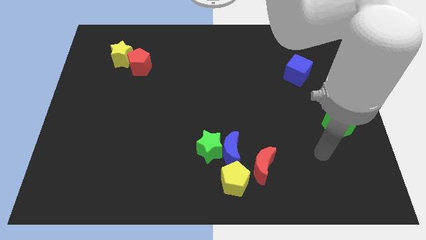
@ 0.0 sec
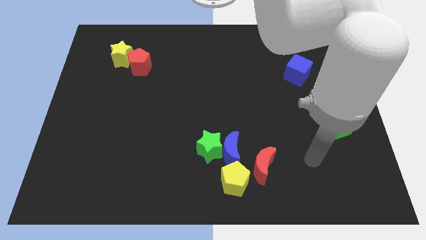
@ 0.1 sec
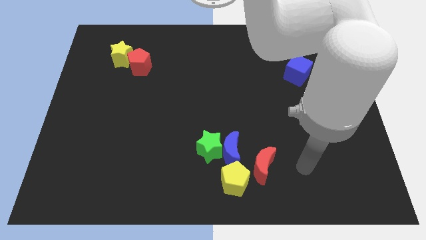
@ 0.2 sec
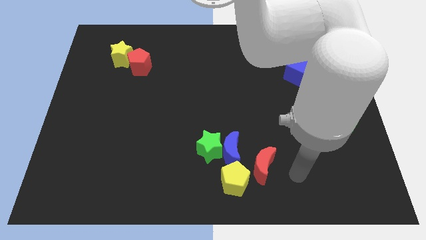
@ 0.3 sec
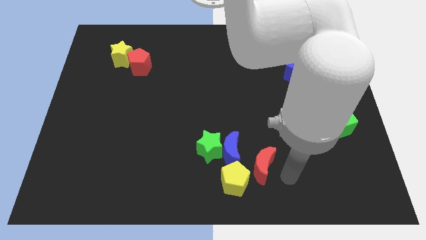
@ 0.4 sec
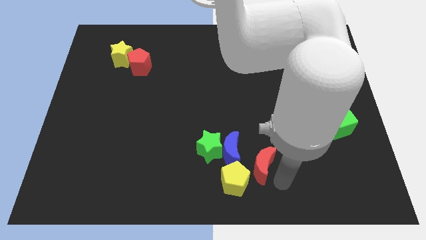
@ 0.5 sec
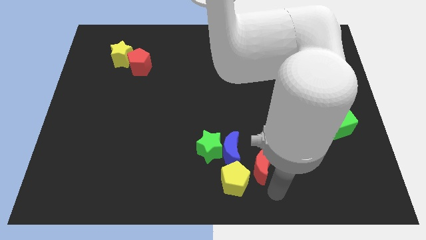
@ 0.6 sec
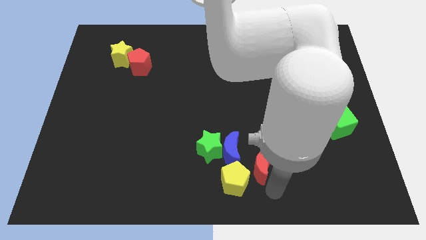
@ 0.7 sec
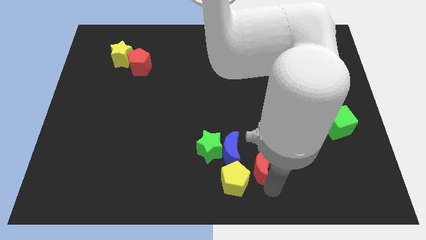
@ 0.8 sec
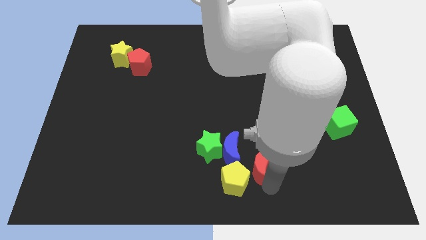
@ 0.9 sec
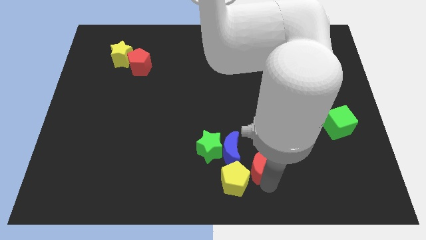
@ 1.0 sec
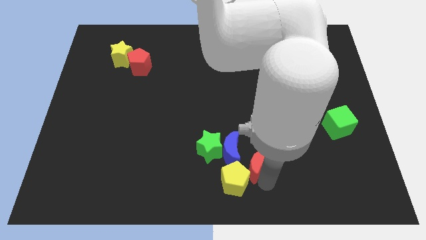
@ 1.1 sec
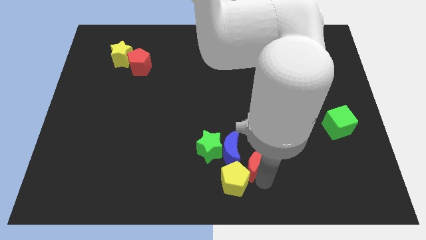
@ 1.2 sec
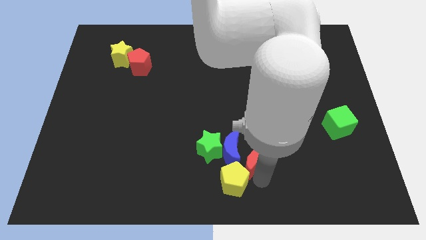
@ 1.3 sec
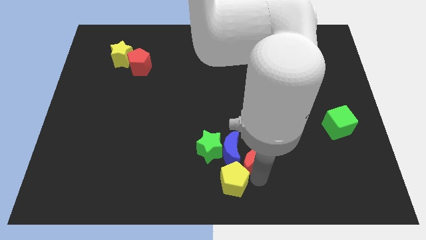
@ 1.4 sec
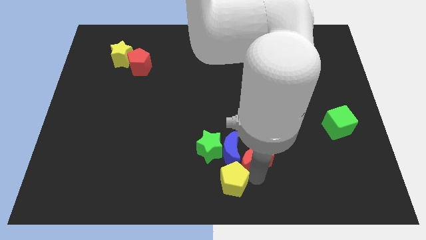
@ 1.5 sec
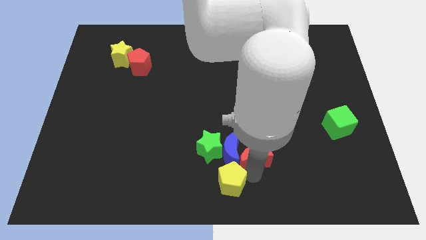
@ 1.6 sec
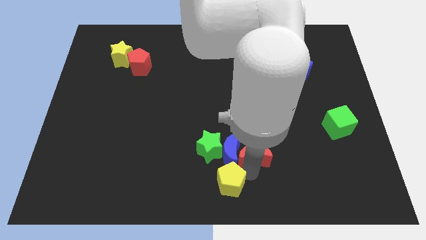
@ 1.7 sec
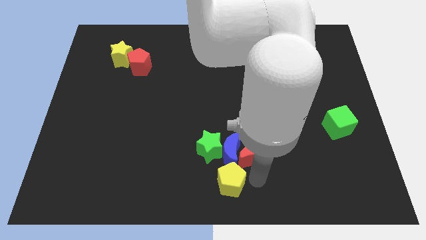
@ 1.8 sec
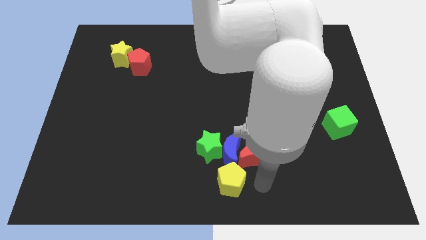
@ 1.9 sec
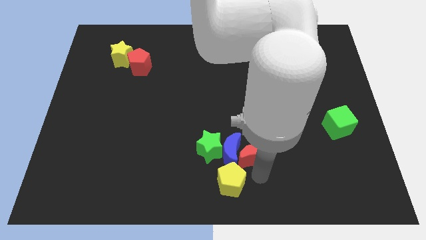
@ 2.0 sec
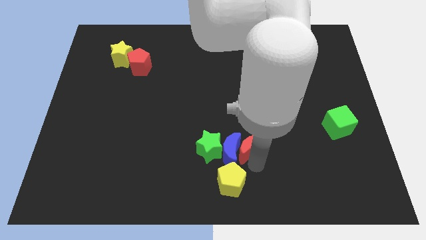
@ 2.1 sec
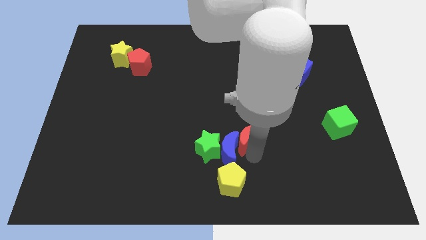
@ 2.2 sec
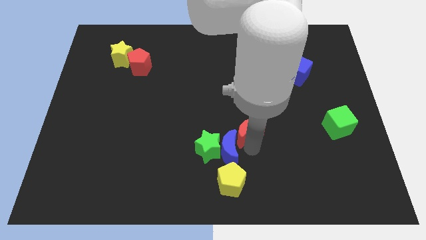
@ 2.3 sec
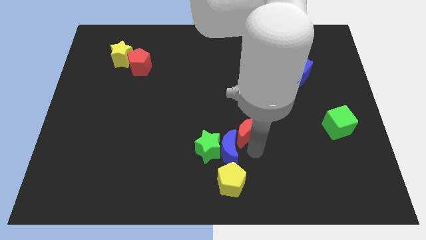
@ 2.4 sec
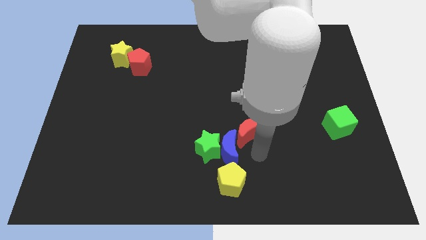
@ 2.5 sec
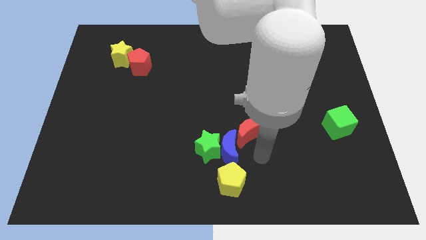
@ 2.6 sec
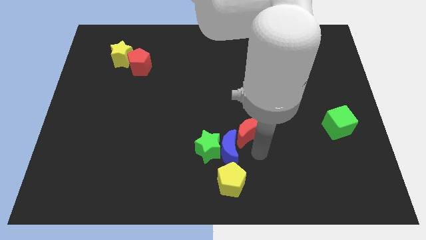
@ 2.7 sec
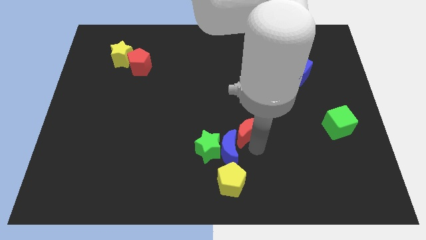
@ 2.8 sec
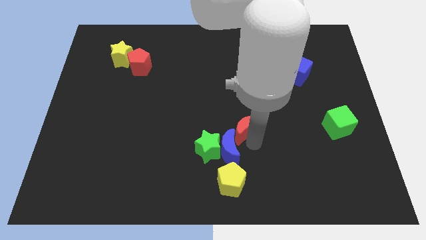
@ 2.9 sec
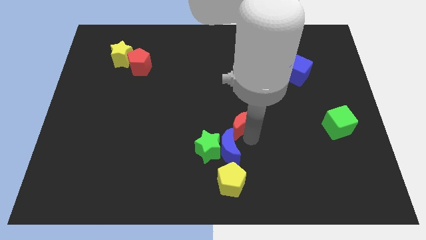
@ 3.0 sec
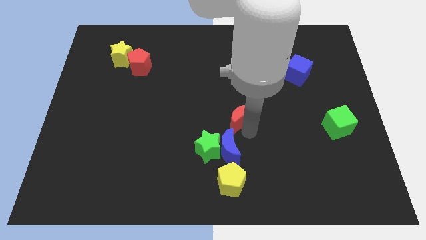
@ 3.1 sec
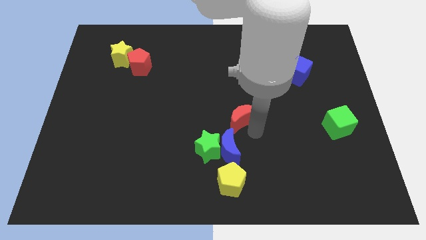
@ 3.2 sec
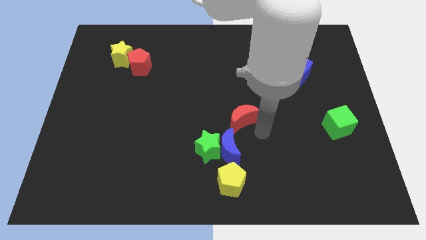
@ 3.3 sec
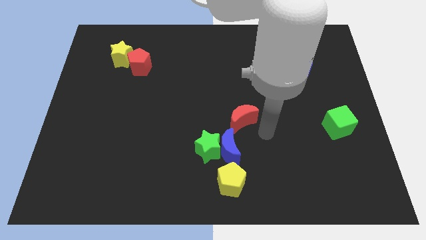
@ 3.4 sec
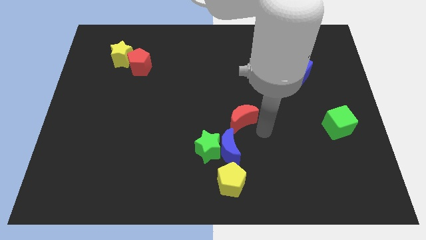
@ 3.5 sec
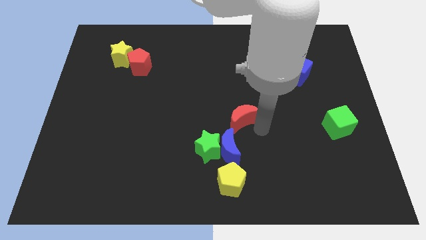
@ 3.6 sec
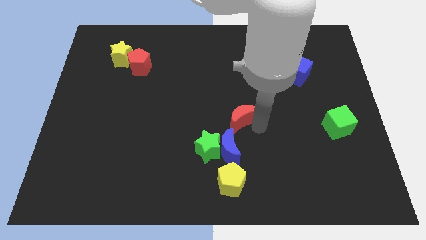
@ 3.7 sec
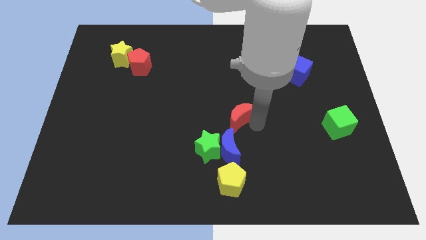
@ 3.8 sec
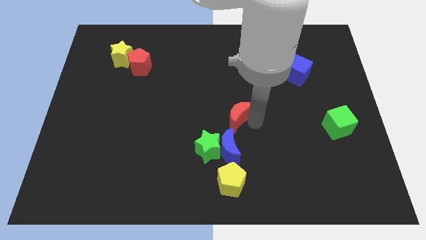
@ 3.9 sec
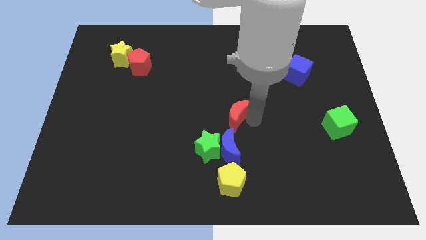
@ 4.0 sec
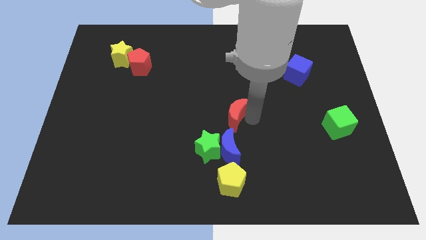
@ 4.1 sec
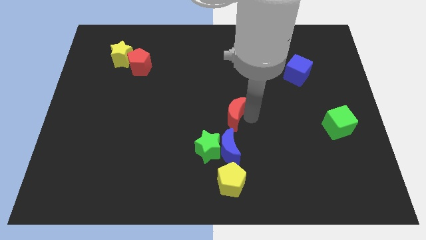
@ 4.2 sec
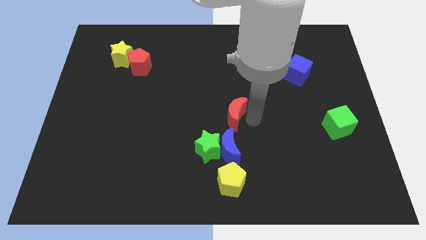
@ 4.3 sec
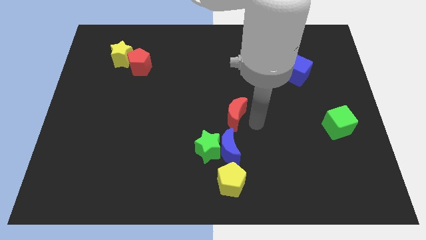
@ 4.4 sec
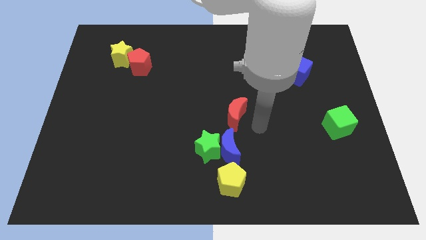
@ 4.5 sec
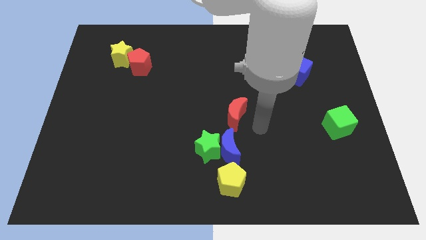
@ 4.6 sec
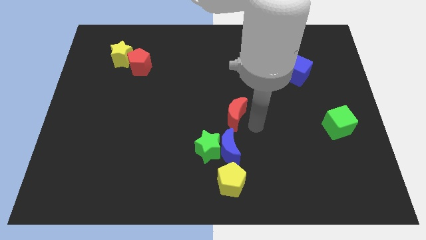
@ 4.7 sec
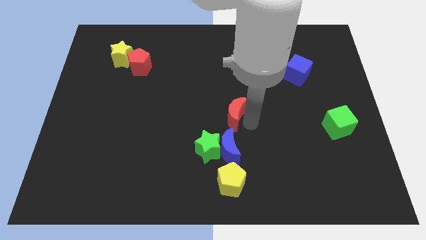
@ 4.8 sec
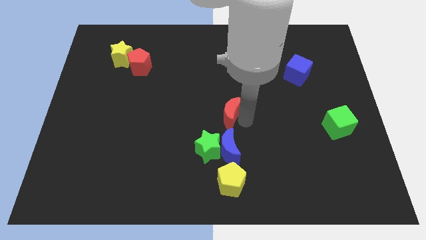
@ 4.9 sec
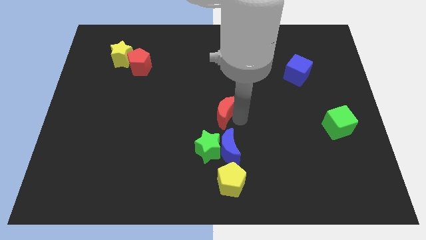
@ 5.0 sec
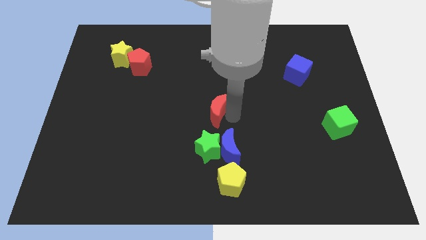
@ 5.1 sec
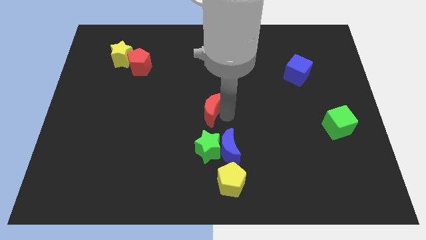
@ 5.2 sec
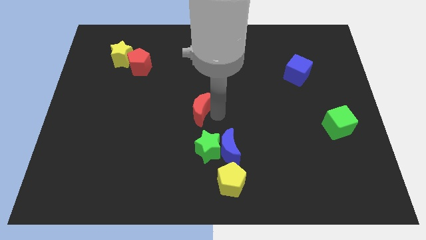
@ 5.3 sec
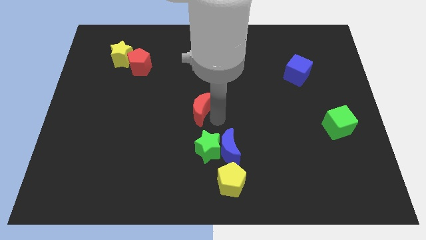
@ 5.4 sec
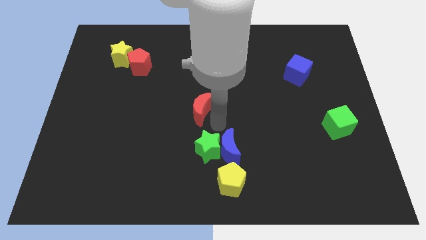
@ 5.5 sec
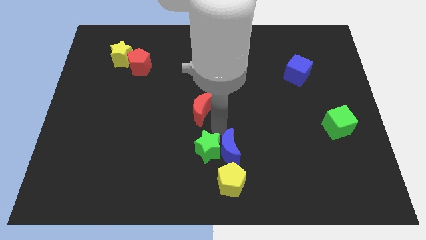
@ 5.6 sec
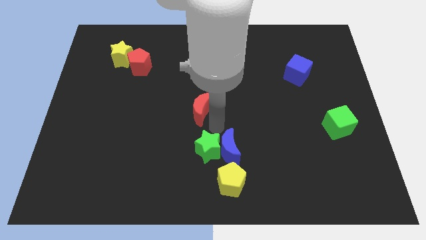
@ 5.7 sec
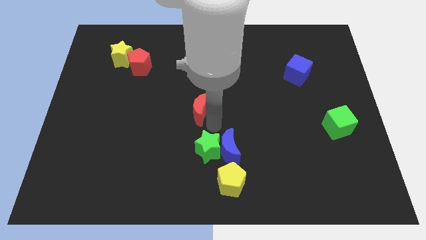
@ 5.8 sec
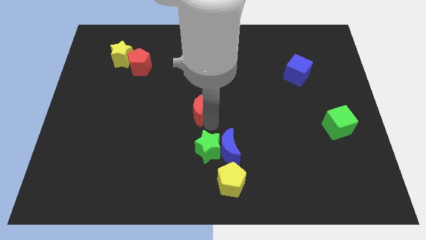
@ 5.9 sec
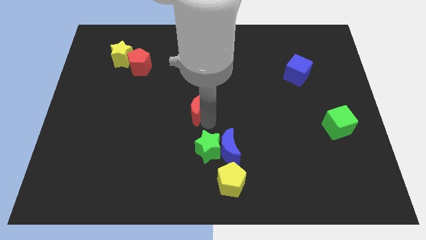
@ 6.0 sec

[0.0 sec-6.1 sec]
move the red moon upwards and then left

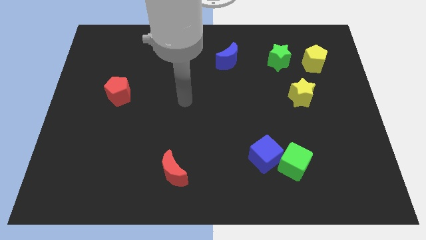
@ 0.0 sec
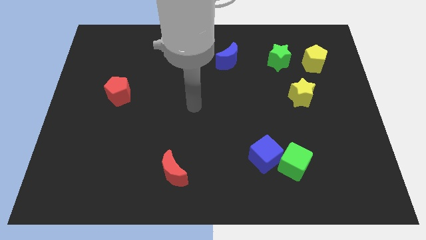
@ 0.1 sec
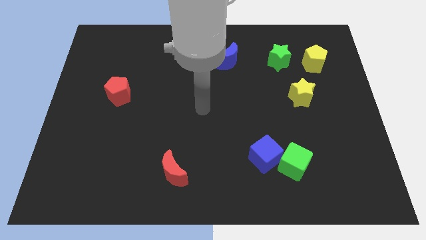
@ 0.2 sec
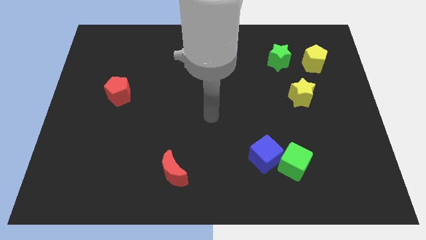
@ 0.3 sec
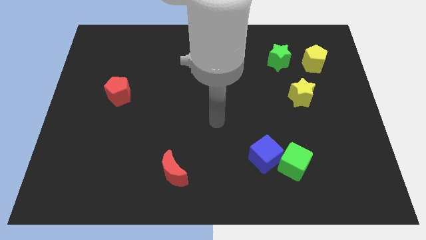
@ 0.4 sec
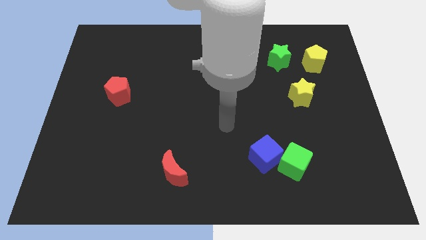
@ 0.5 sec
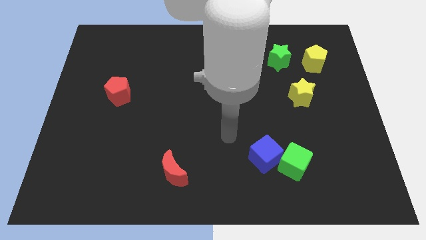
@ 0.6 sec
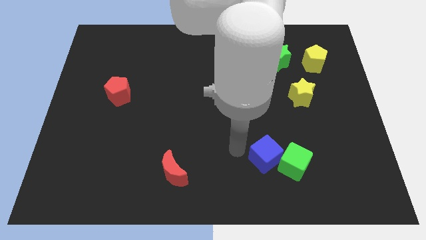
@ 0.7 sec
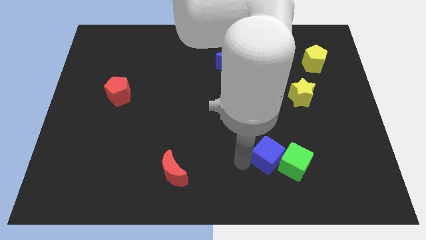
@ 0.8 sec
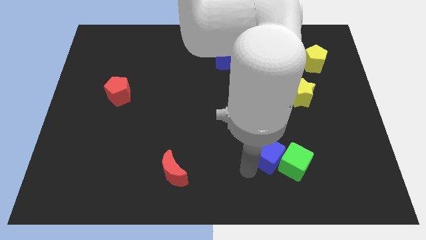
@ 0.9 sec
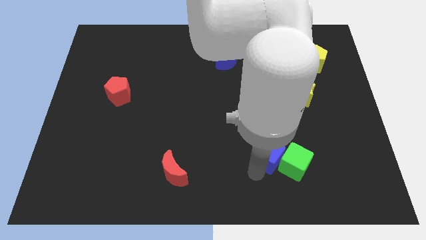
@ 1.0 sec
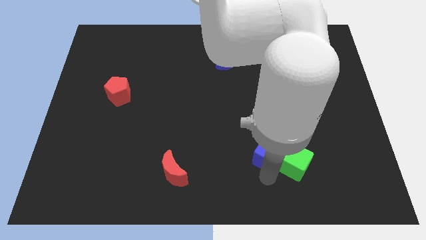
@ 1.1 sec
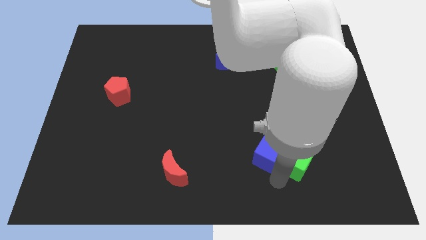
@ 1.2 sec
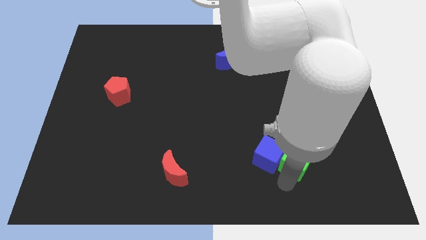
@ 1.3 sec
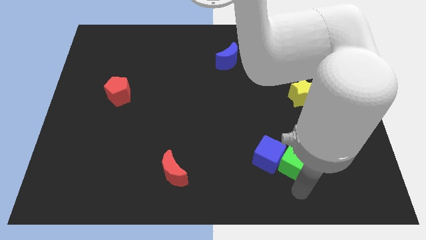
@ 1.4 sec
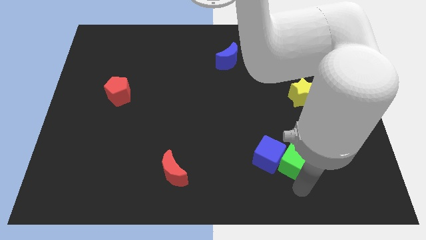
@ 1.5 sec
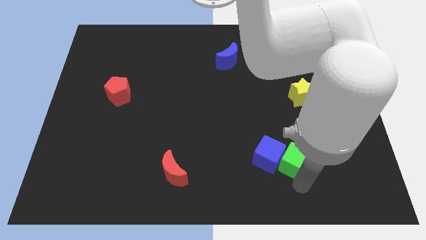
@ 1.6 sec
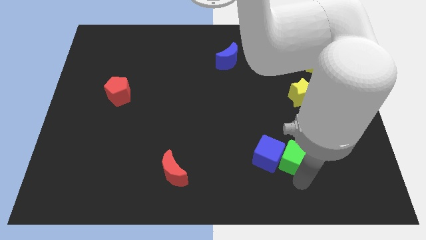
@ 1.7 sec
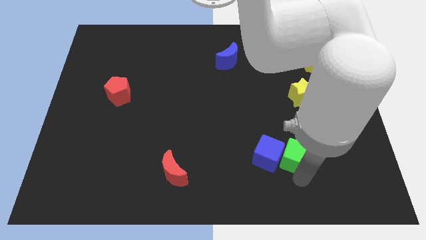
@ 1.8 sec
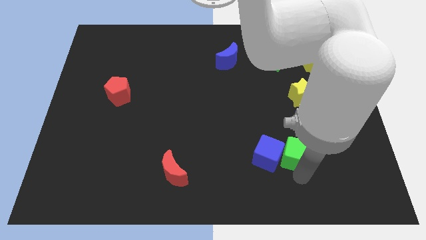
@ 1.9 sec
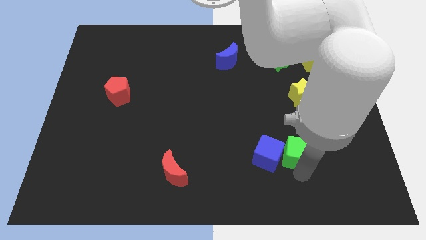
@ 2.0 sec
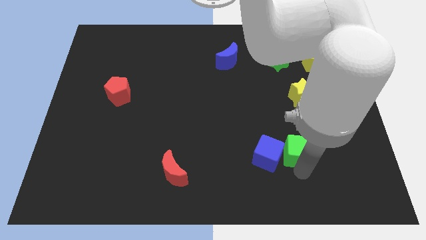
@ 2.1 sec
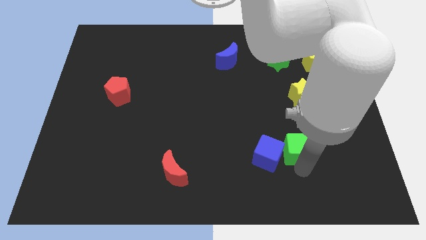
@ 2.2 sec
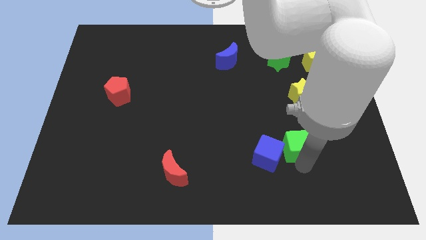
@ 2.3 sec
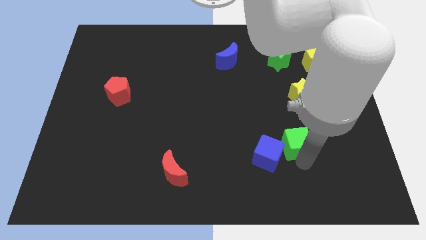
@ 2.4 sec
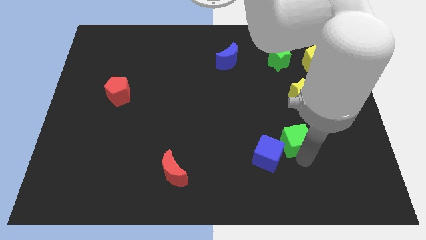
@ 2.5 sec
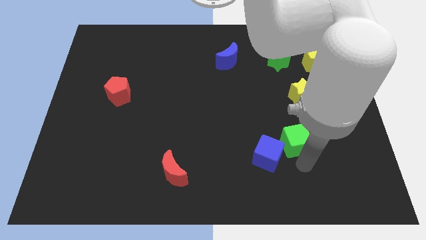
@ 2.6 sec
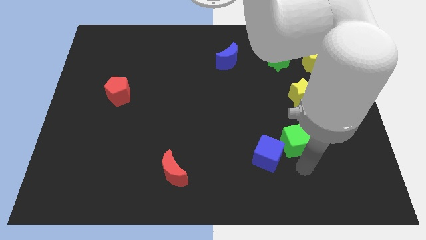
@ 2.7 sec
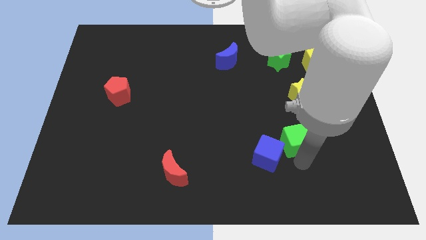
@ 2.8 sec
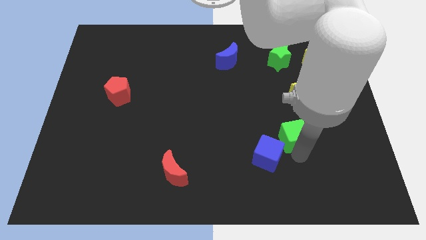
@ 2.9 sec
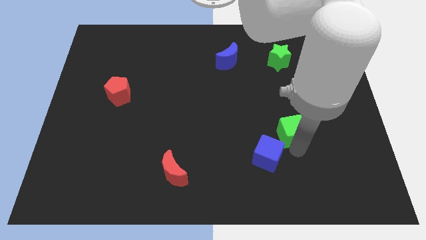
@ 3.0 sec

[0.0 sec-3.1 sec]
push the green cube a little bit upwards
